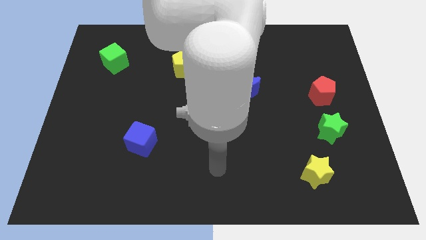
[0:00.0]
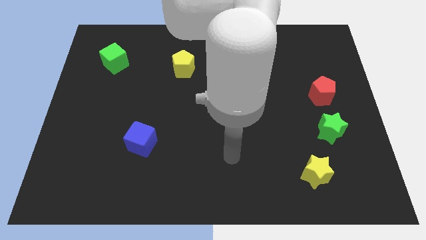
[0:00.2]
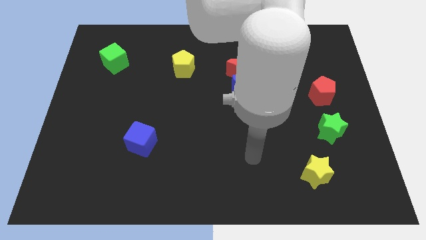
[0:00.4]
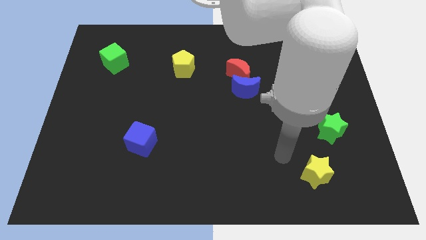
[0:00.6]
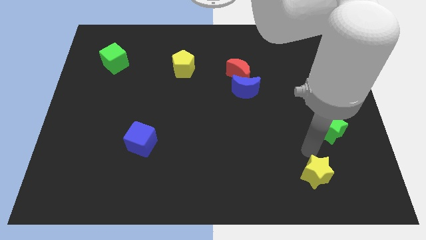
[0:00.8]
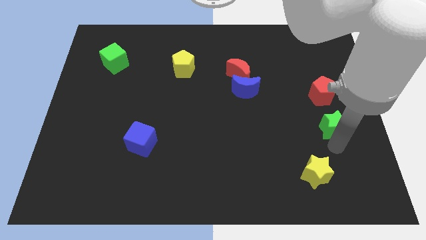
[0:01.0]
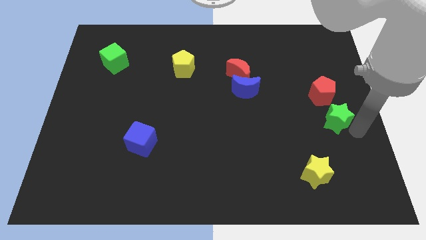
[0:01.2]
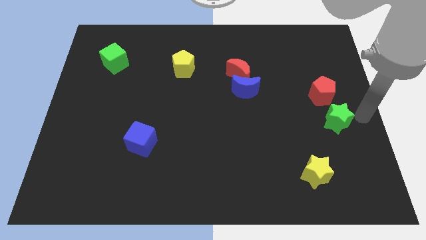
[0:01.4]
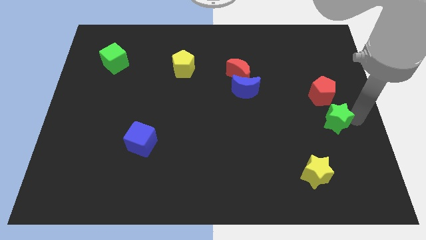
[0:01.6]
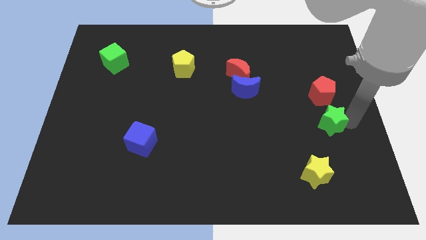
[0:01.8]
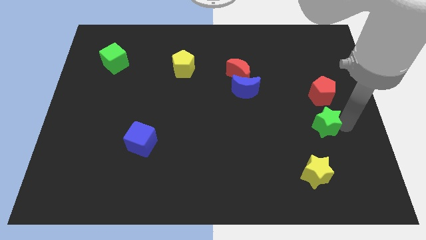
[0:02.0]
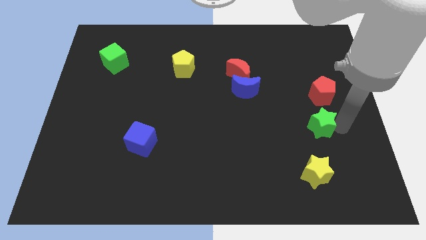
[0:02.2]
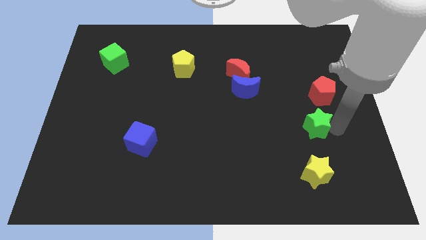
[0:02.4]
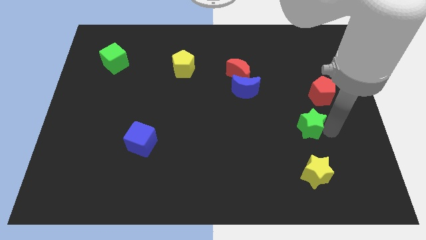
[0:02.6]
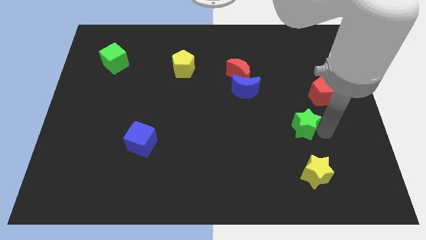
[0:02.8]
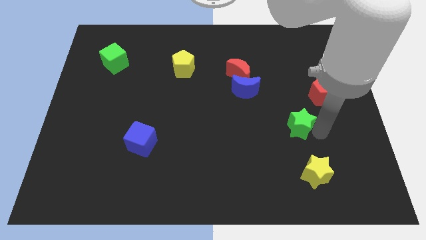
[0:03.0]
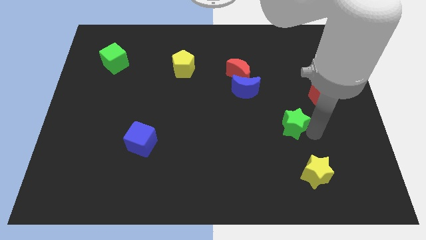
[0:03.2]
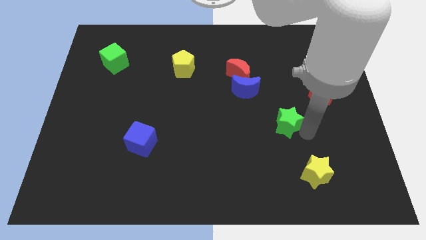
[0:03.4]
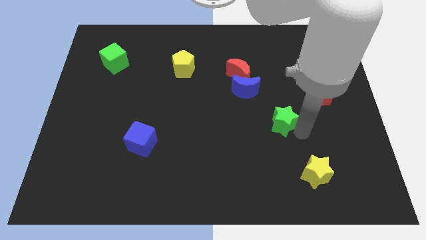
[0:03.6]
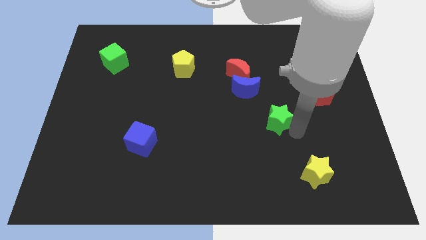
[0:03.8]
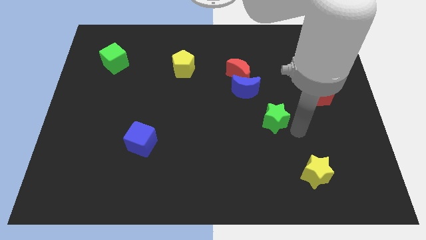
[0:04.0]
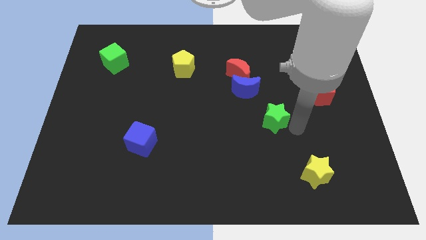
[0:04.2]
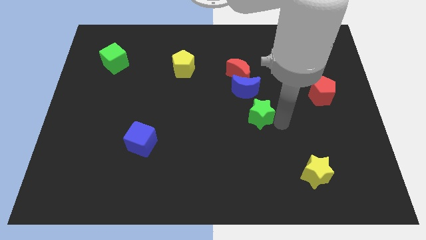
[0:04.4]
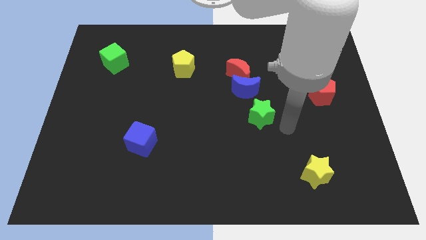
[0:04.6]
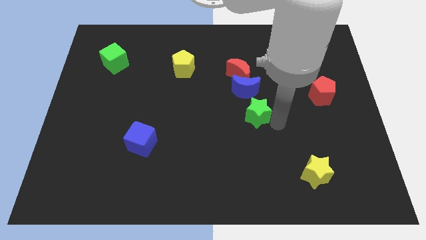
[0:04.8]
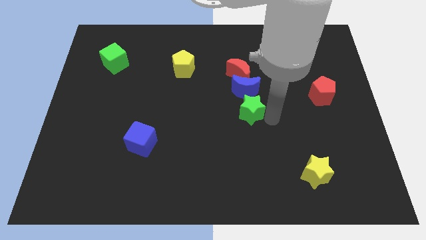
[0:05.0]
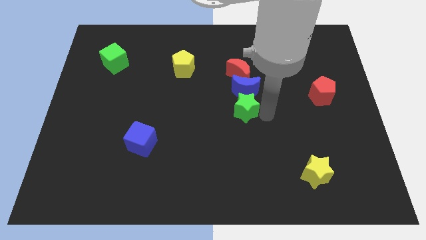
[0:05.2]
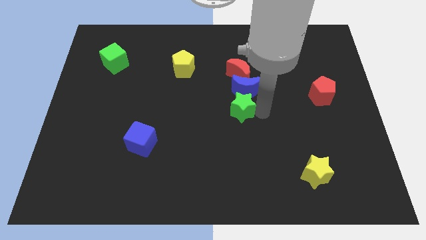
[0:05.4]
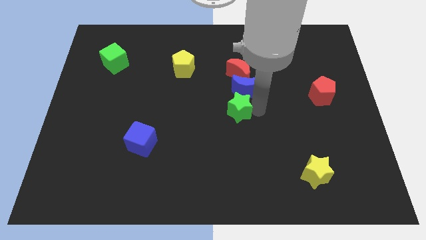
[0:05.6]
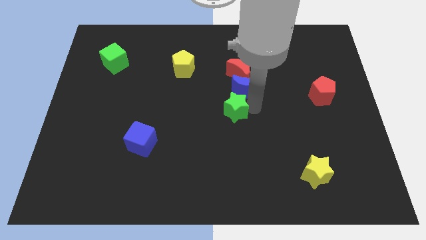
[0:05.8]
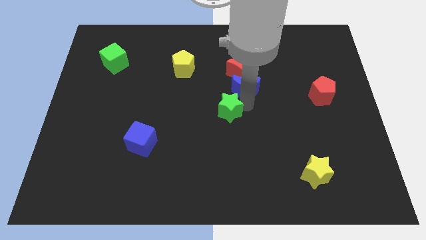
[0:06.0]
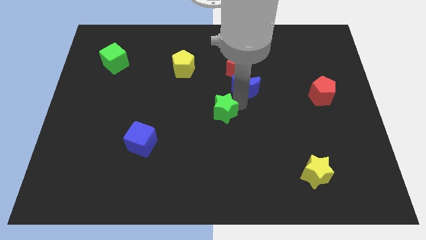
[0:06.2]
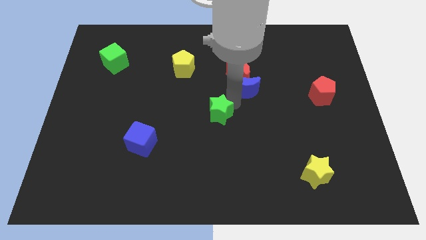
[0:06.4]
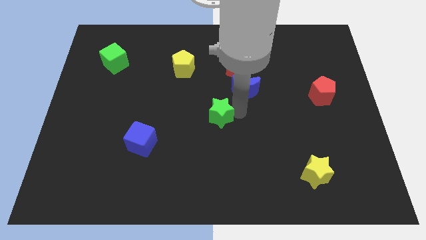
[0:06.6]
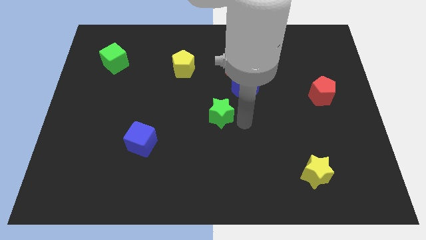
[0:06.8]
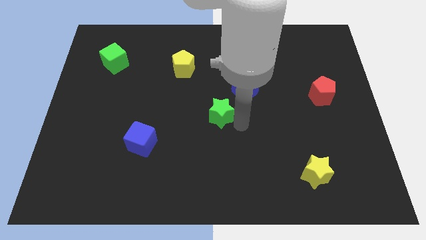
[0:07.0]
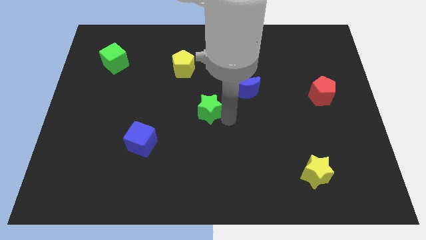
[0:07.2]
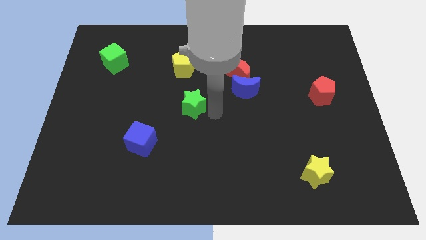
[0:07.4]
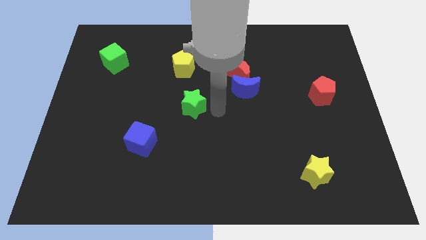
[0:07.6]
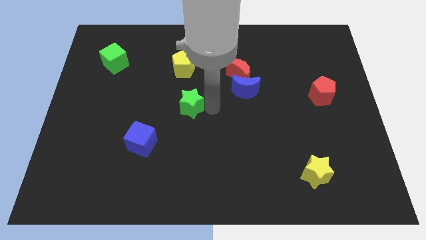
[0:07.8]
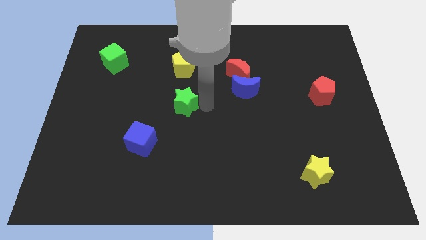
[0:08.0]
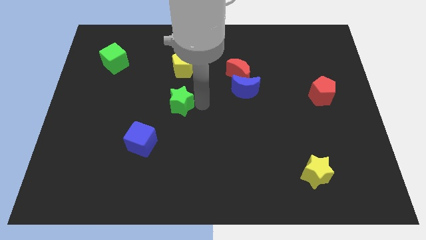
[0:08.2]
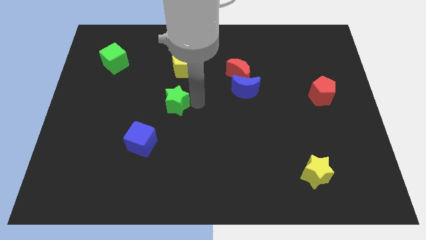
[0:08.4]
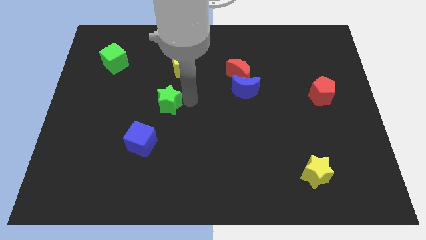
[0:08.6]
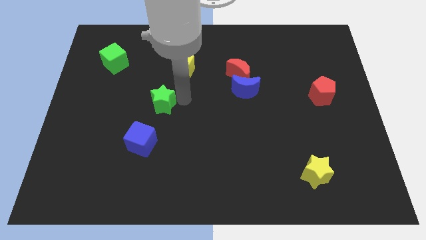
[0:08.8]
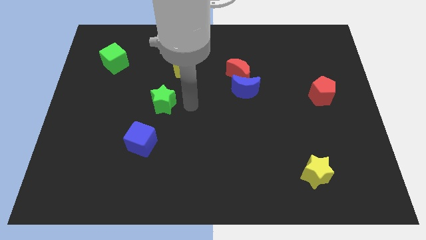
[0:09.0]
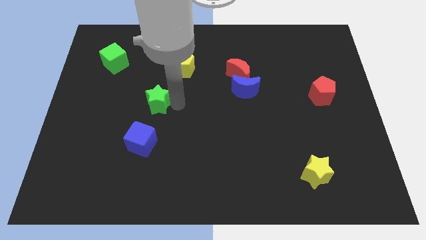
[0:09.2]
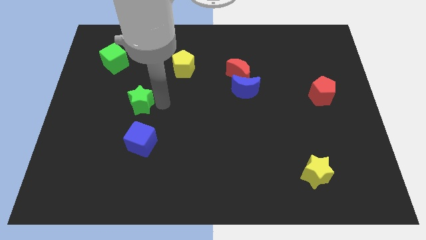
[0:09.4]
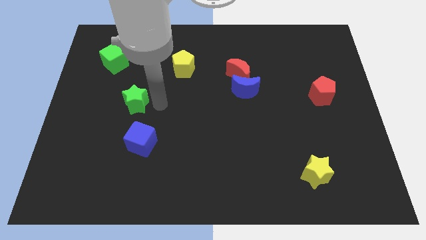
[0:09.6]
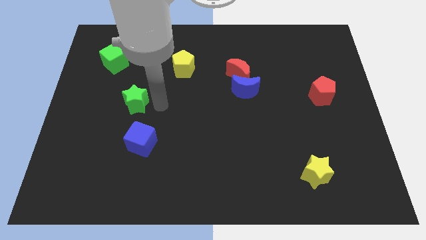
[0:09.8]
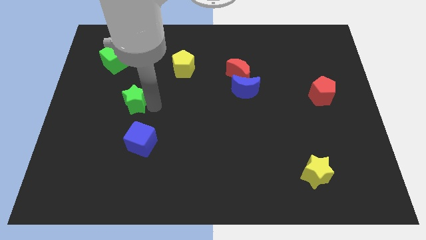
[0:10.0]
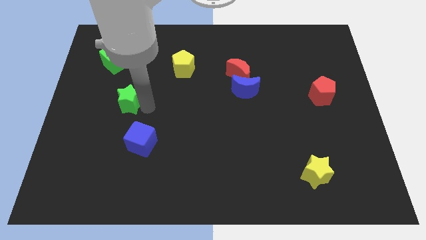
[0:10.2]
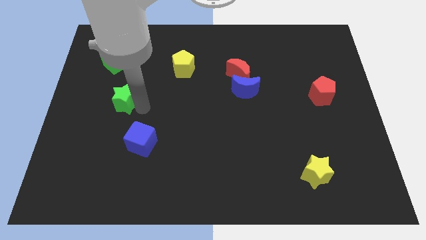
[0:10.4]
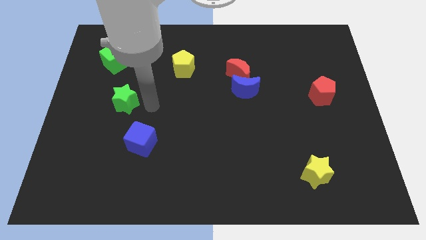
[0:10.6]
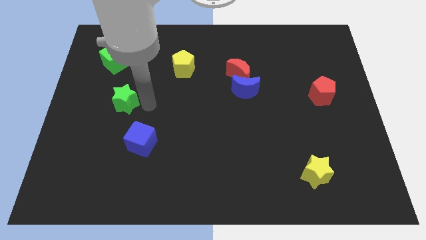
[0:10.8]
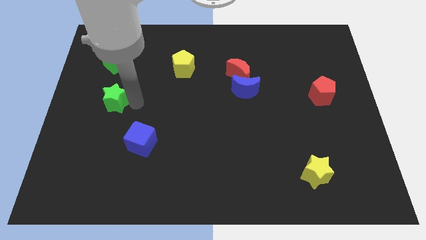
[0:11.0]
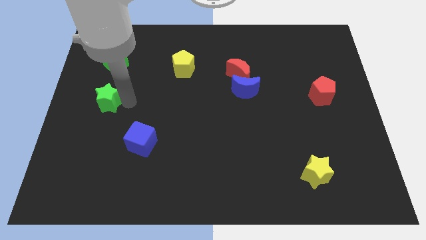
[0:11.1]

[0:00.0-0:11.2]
put the green star to the left side of the board
